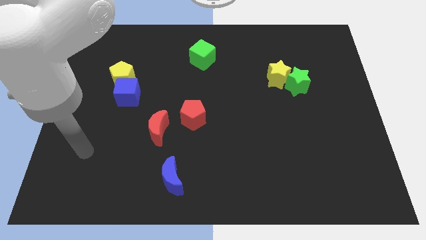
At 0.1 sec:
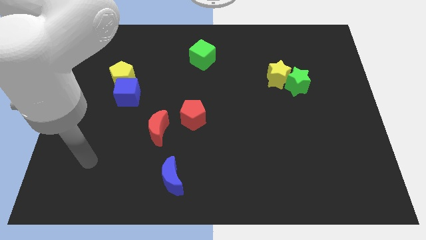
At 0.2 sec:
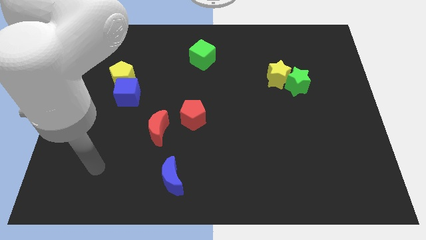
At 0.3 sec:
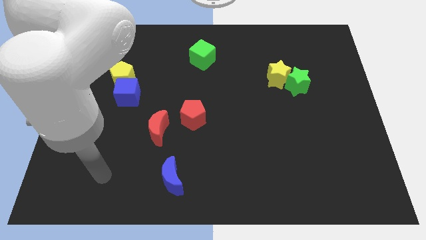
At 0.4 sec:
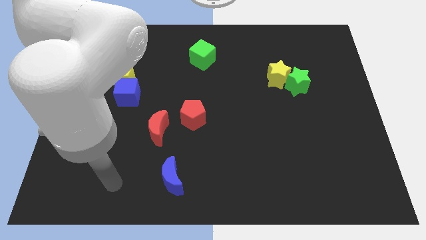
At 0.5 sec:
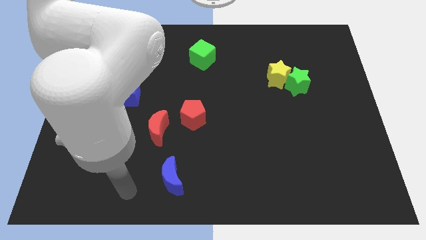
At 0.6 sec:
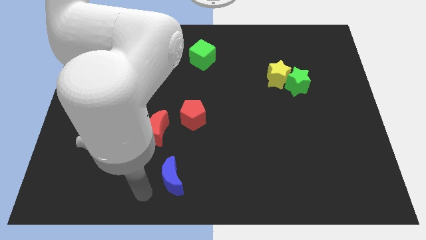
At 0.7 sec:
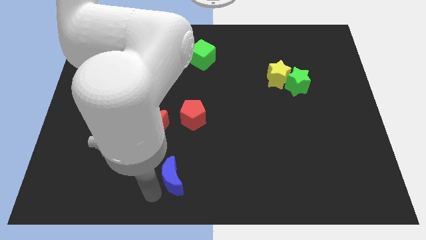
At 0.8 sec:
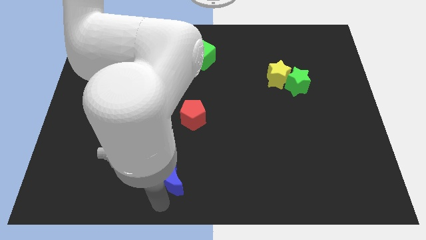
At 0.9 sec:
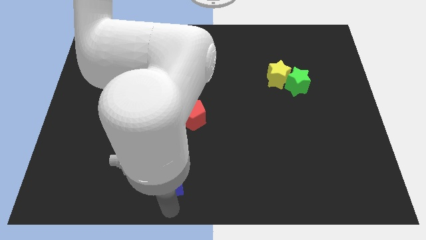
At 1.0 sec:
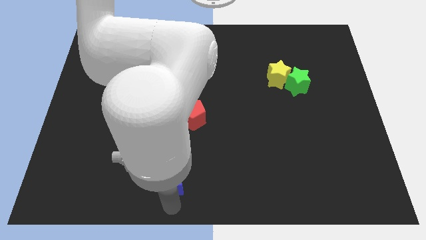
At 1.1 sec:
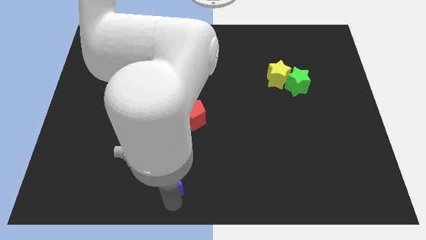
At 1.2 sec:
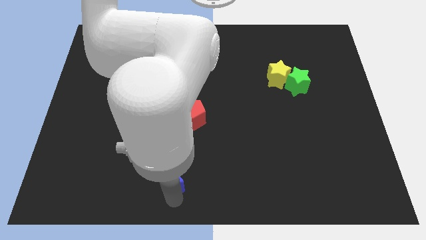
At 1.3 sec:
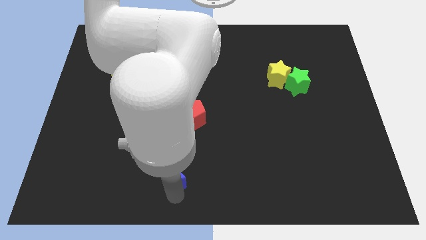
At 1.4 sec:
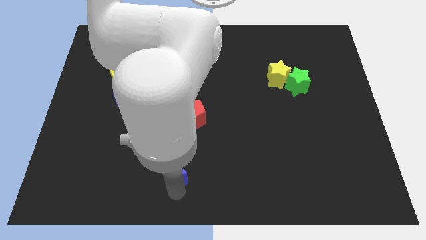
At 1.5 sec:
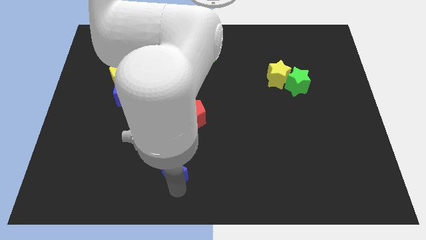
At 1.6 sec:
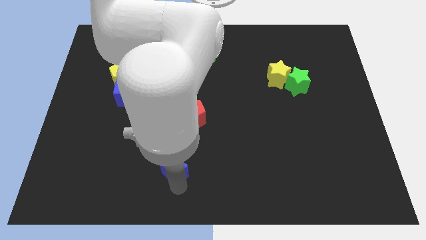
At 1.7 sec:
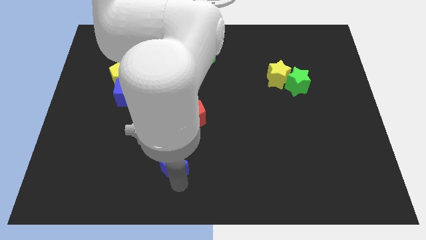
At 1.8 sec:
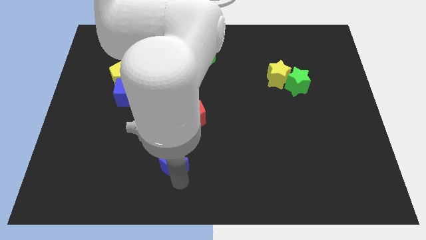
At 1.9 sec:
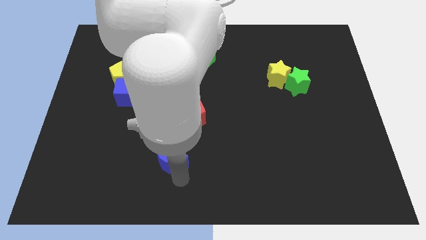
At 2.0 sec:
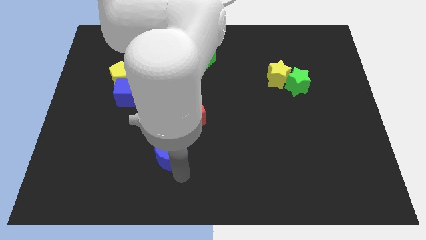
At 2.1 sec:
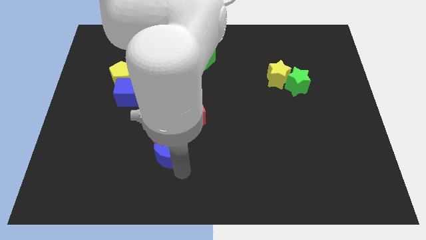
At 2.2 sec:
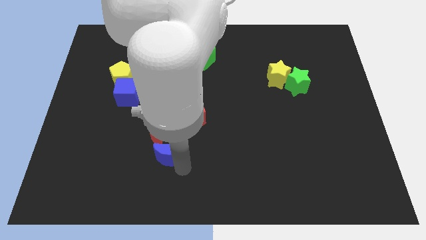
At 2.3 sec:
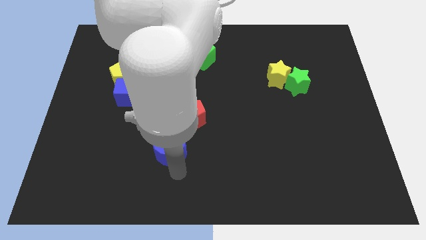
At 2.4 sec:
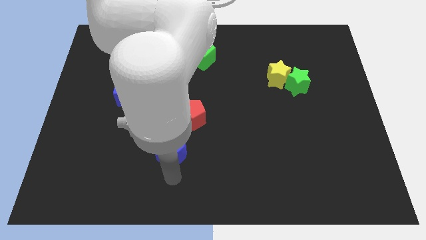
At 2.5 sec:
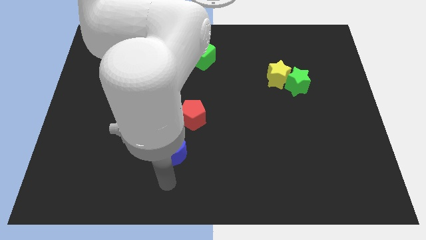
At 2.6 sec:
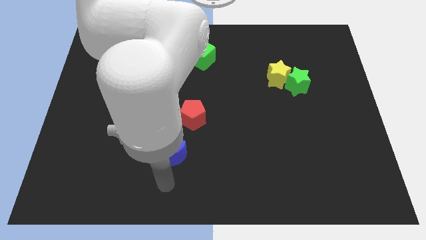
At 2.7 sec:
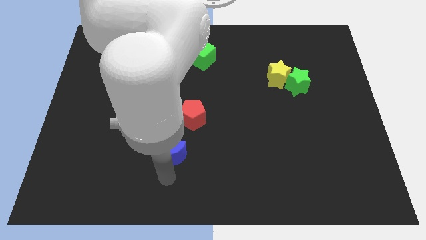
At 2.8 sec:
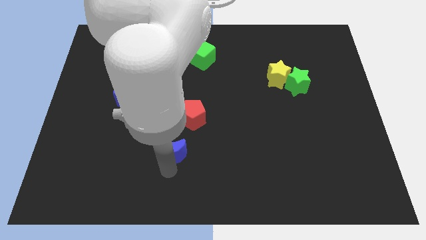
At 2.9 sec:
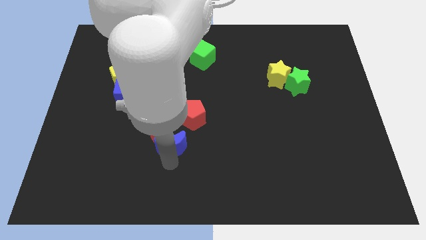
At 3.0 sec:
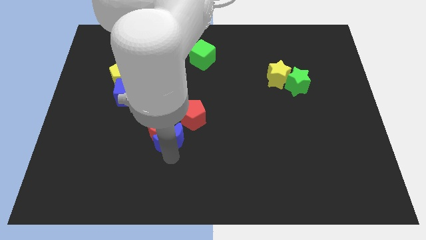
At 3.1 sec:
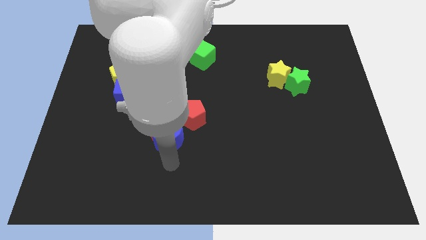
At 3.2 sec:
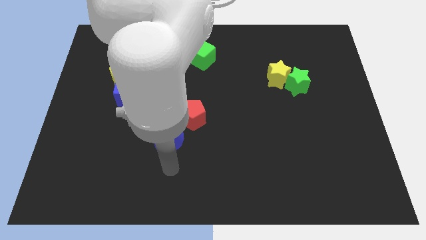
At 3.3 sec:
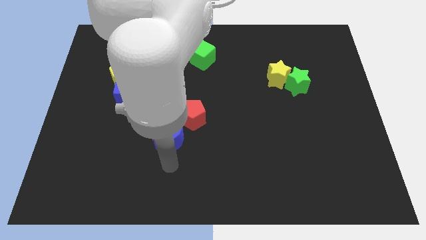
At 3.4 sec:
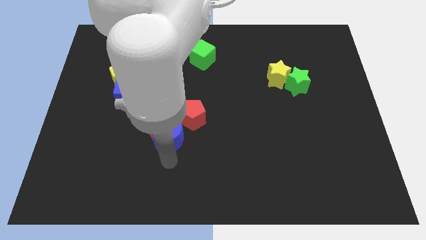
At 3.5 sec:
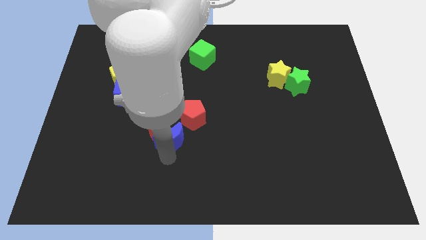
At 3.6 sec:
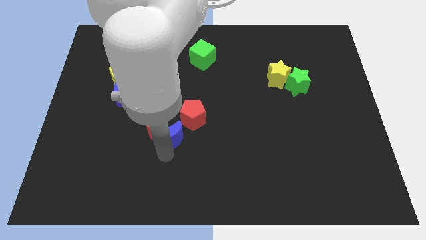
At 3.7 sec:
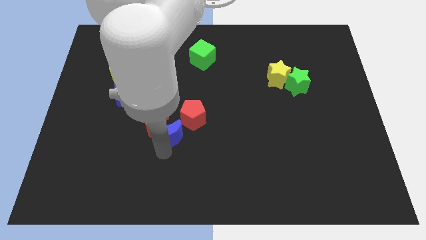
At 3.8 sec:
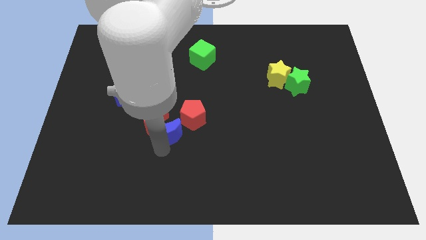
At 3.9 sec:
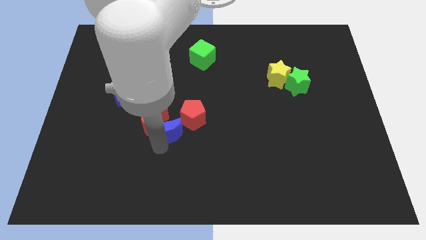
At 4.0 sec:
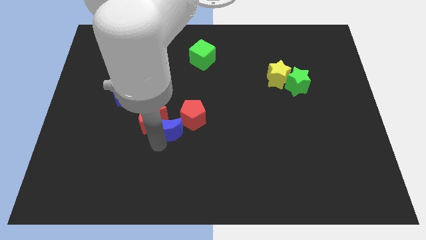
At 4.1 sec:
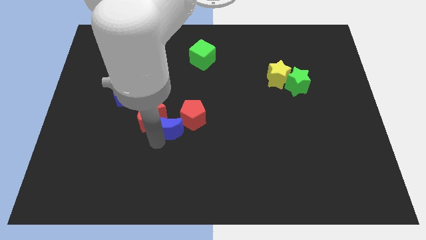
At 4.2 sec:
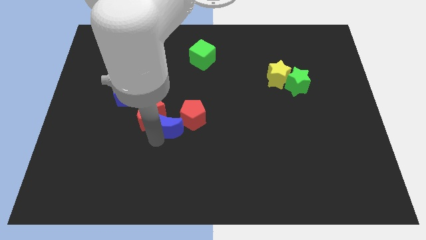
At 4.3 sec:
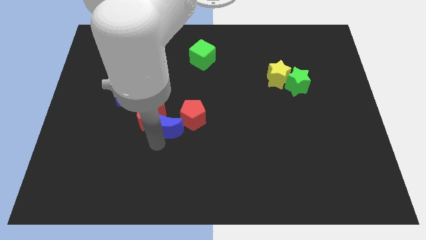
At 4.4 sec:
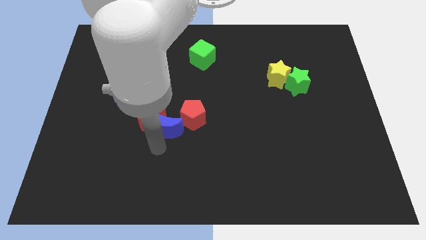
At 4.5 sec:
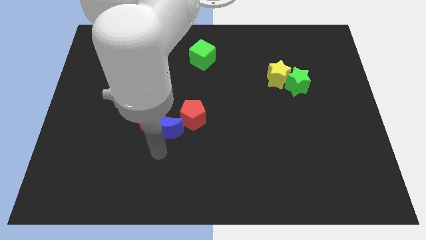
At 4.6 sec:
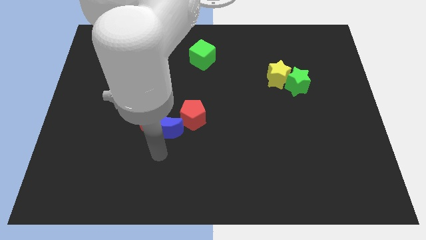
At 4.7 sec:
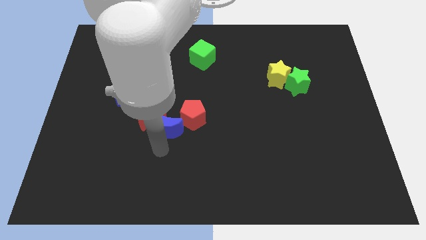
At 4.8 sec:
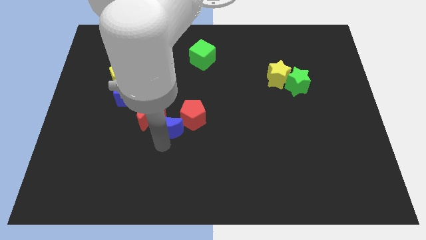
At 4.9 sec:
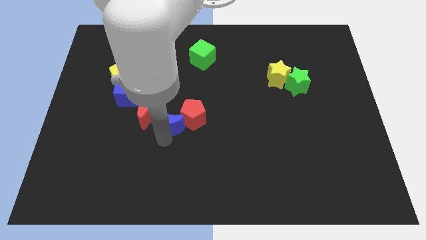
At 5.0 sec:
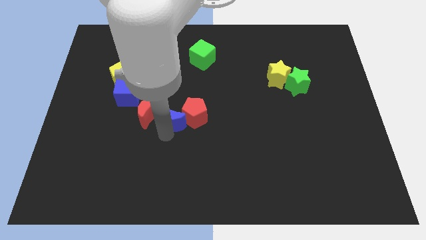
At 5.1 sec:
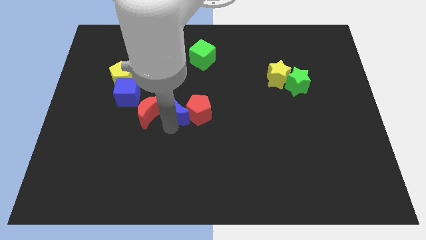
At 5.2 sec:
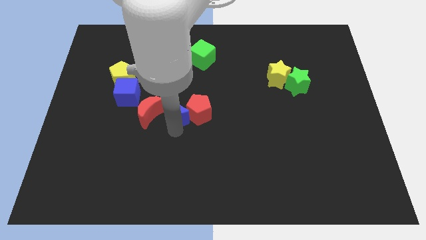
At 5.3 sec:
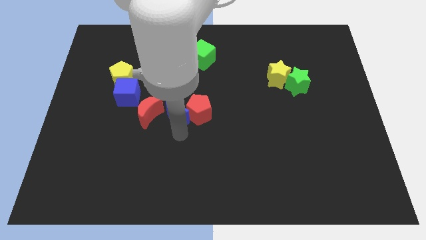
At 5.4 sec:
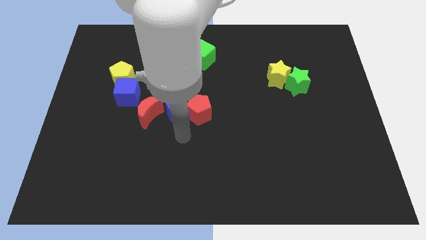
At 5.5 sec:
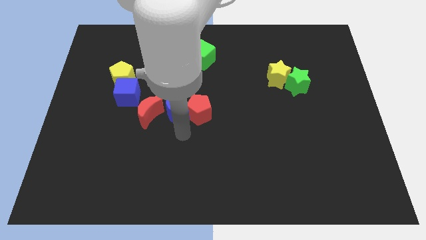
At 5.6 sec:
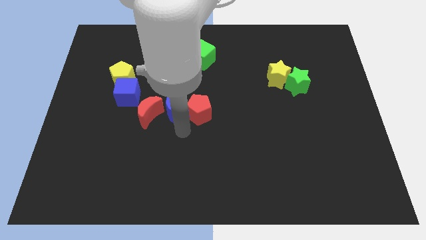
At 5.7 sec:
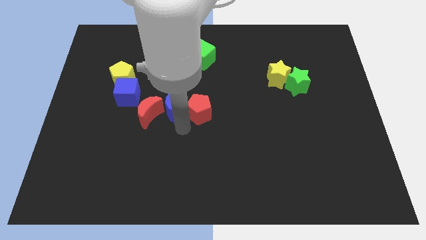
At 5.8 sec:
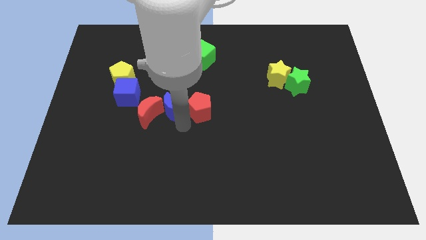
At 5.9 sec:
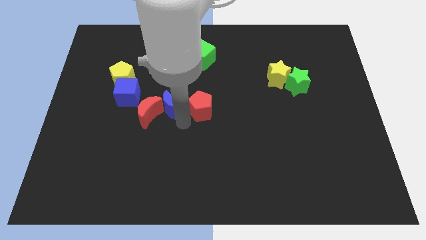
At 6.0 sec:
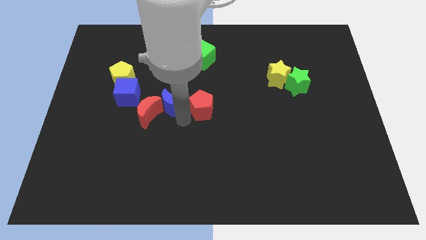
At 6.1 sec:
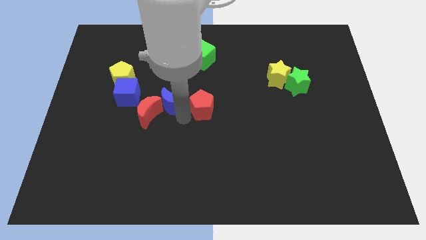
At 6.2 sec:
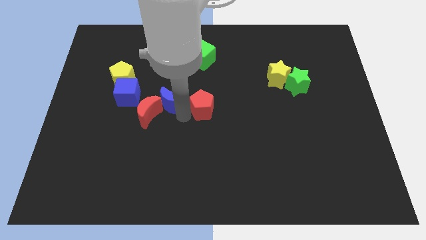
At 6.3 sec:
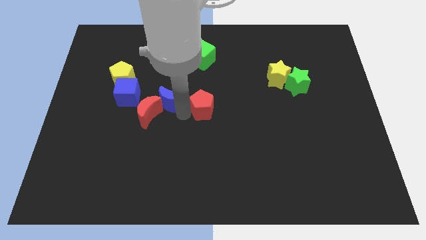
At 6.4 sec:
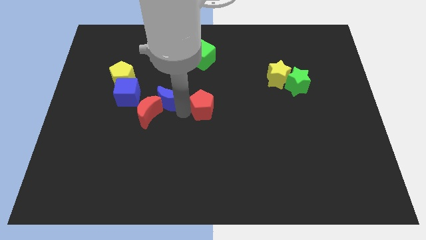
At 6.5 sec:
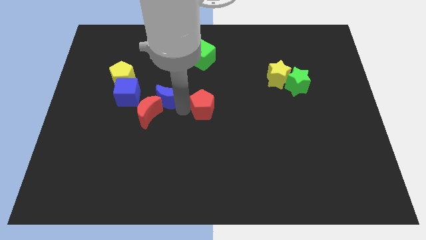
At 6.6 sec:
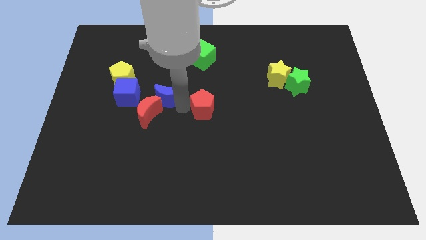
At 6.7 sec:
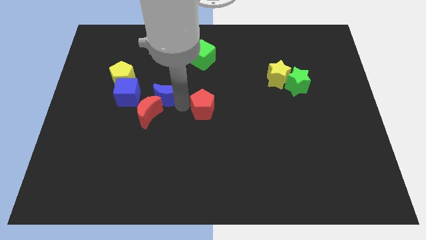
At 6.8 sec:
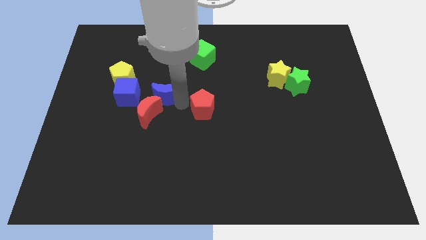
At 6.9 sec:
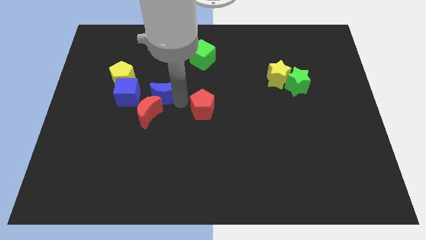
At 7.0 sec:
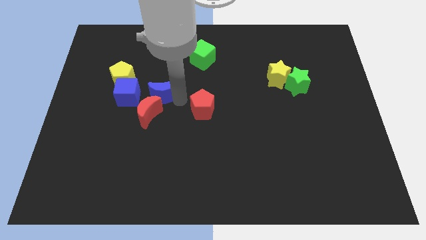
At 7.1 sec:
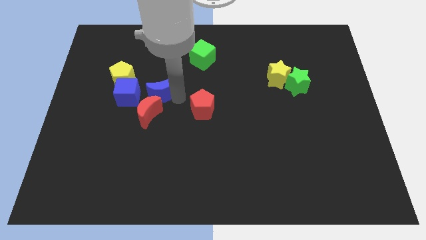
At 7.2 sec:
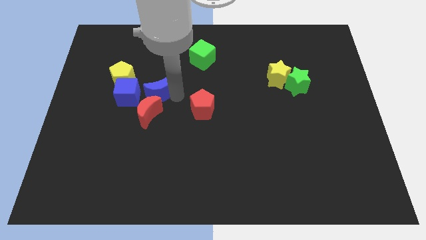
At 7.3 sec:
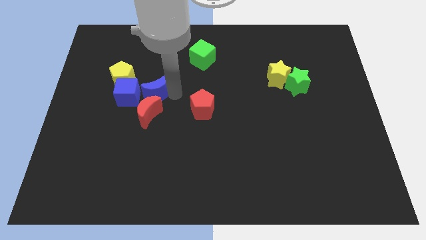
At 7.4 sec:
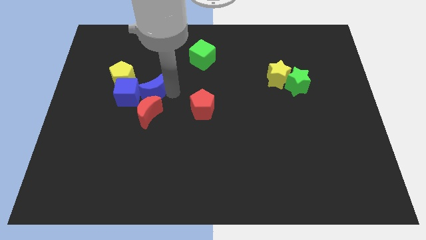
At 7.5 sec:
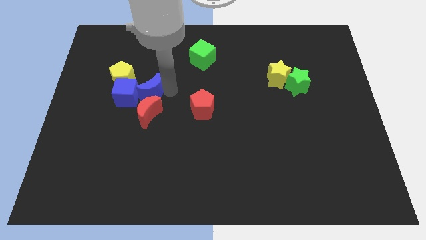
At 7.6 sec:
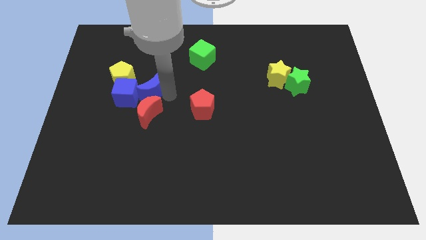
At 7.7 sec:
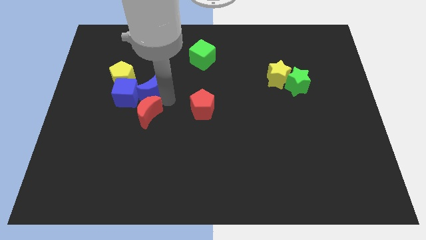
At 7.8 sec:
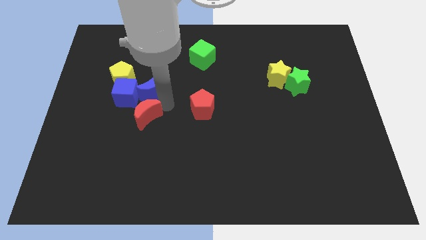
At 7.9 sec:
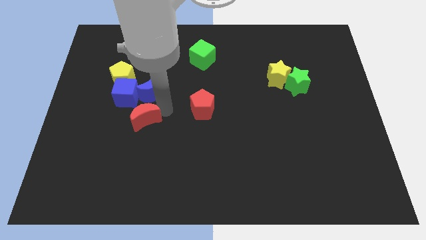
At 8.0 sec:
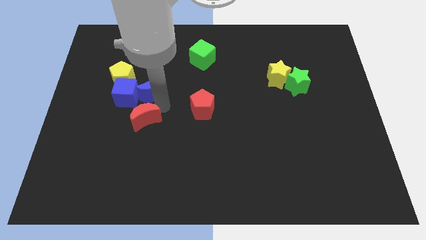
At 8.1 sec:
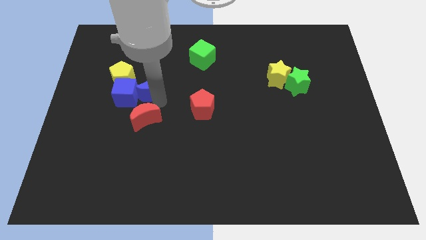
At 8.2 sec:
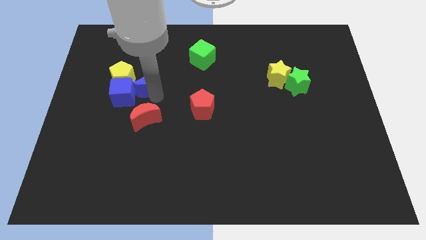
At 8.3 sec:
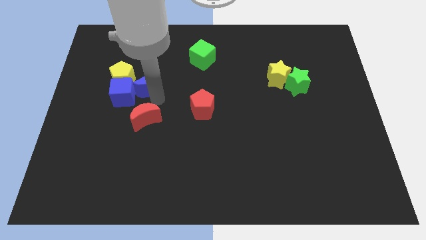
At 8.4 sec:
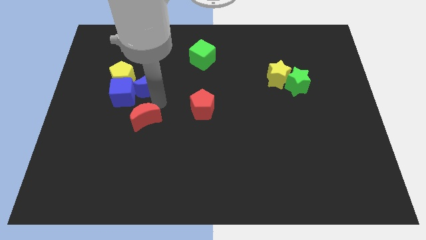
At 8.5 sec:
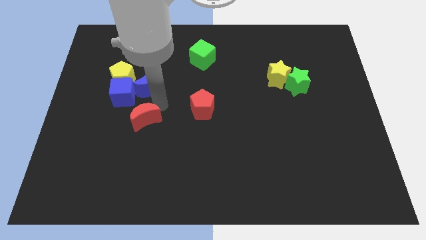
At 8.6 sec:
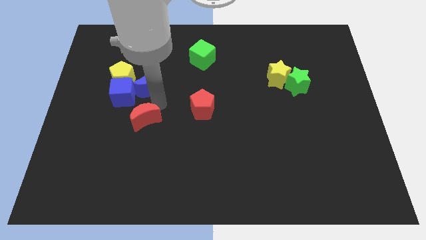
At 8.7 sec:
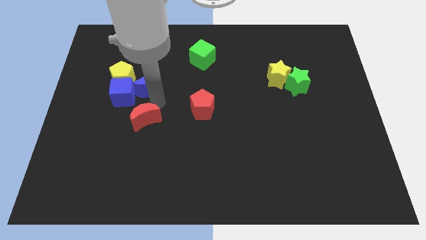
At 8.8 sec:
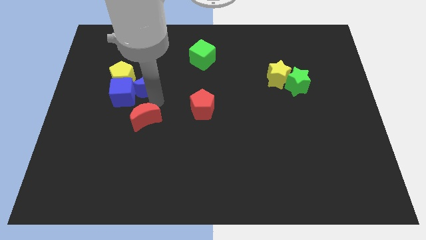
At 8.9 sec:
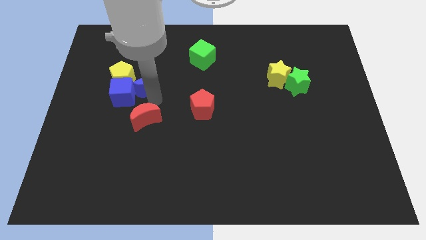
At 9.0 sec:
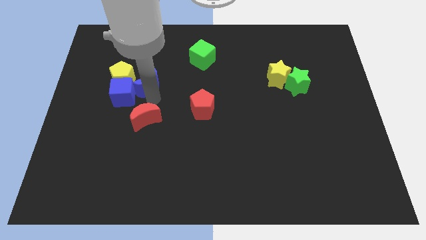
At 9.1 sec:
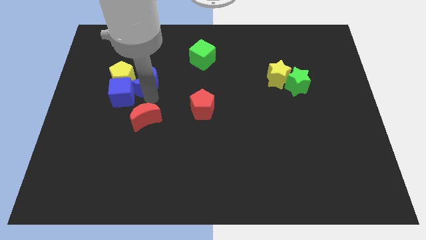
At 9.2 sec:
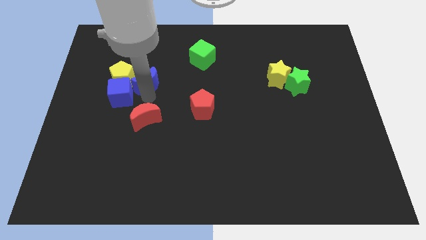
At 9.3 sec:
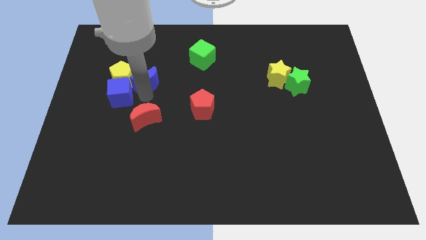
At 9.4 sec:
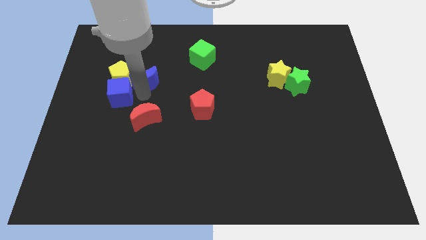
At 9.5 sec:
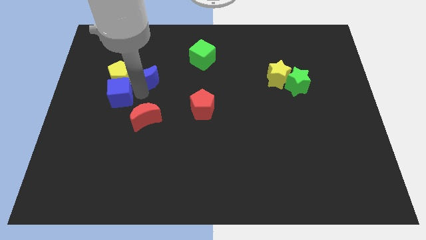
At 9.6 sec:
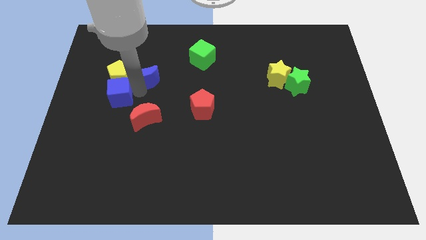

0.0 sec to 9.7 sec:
slide the blue moon to the top right side of the yellow pentagon
